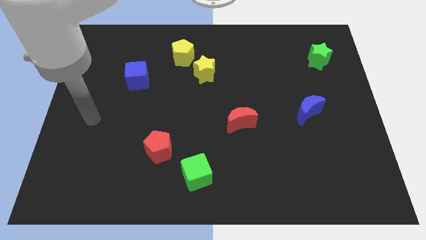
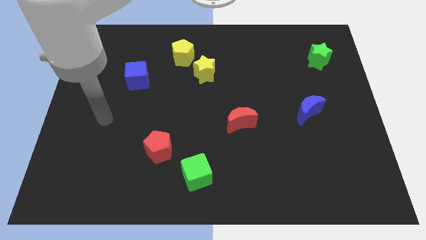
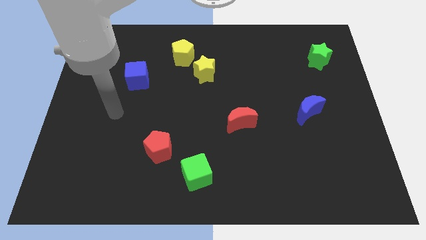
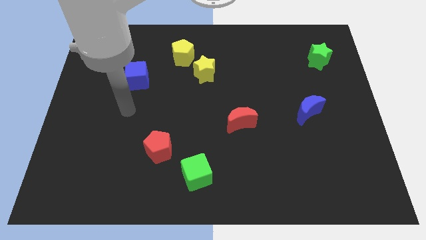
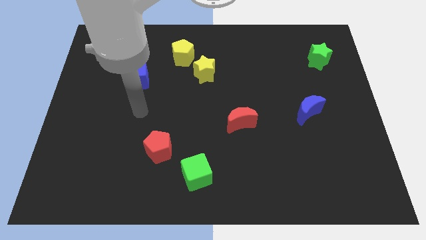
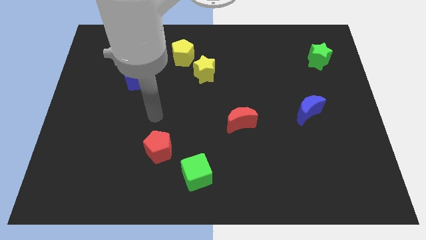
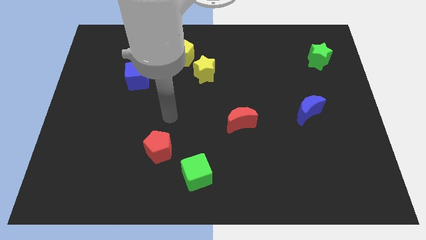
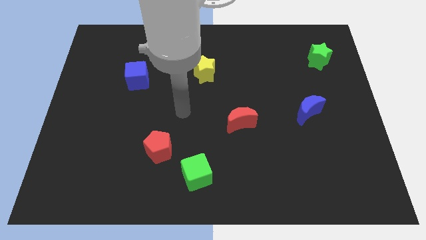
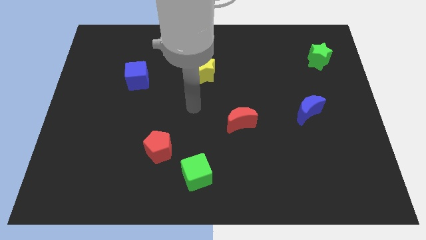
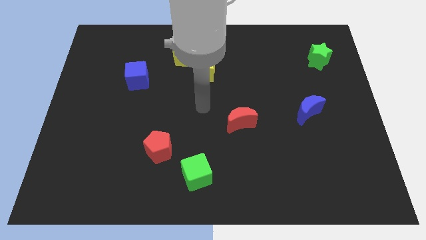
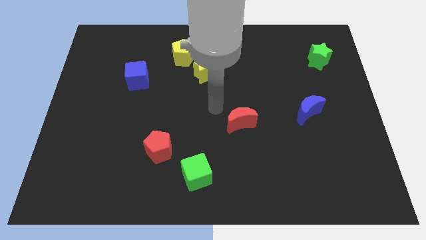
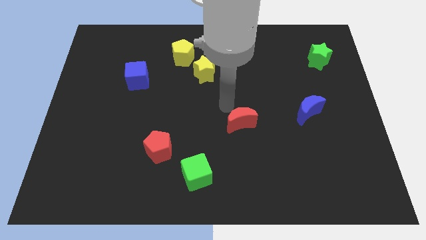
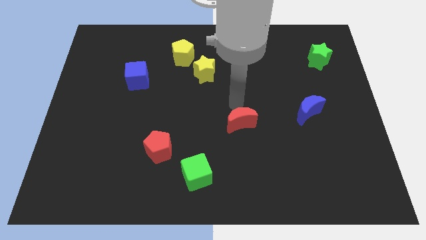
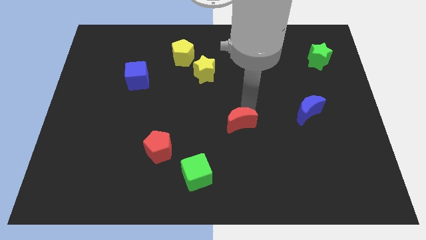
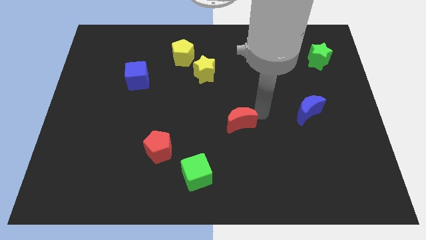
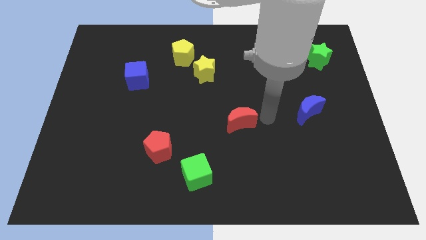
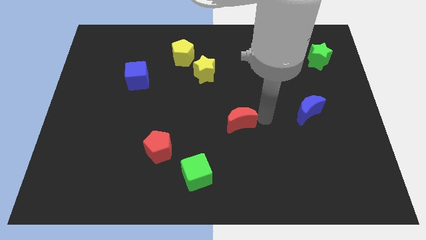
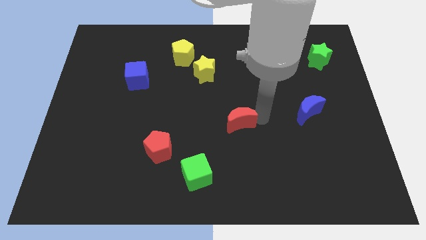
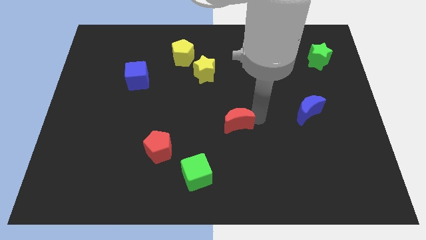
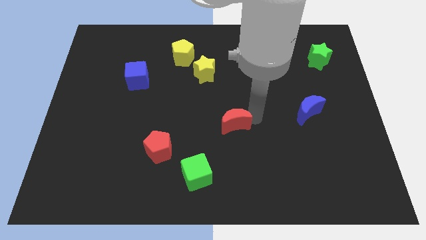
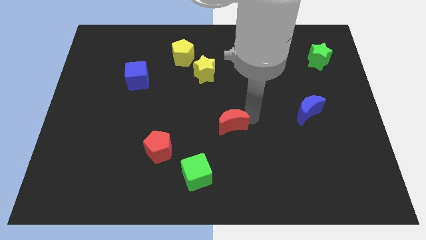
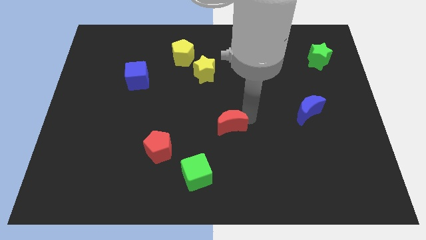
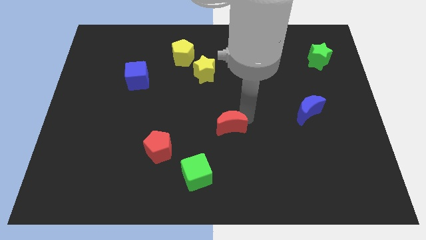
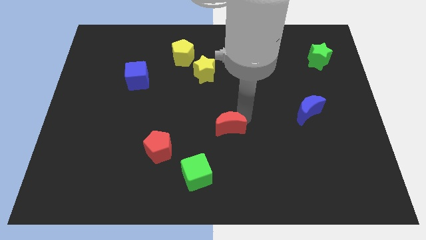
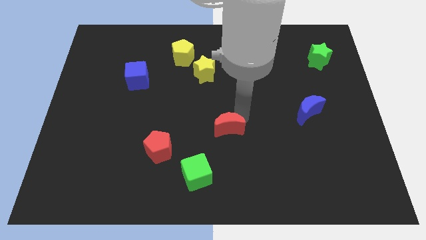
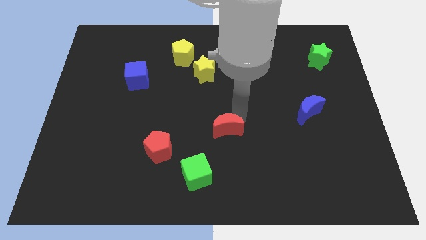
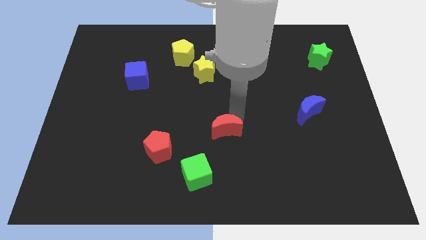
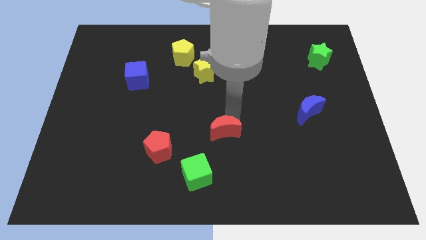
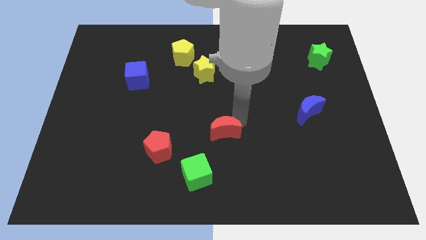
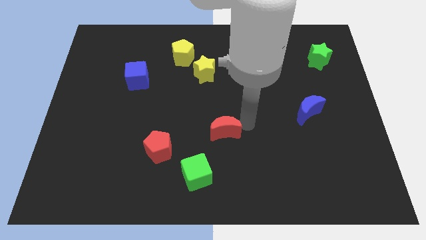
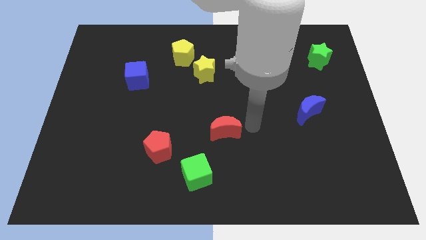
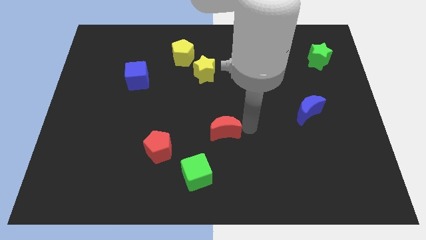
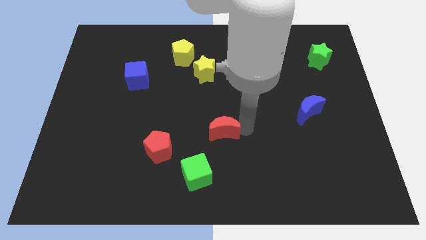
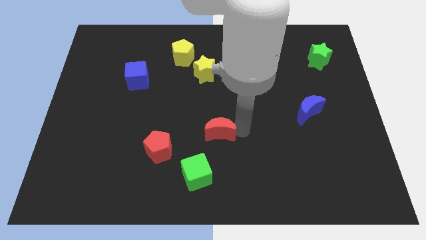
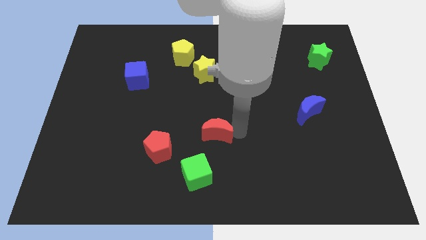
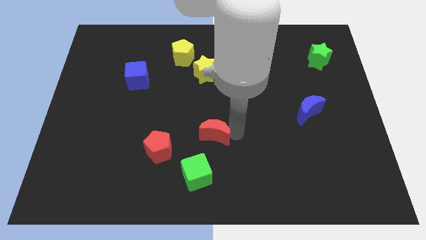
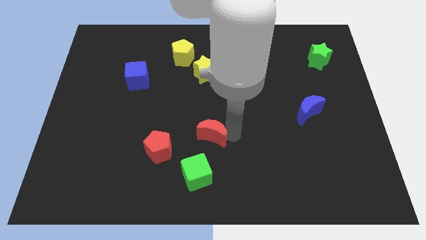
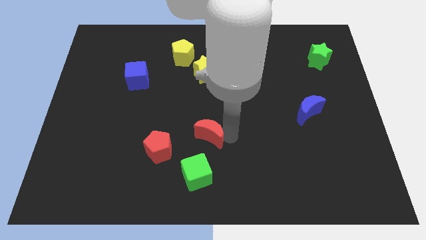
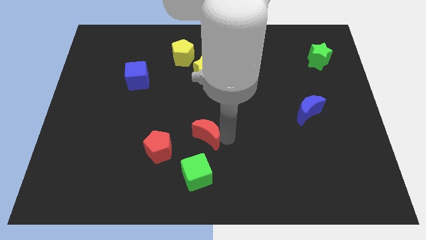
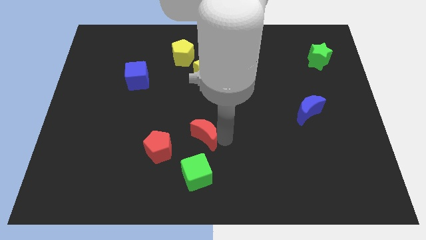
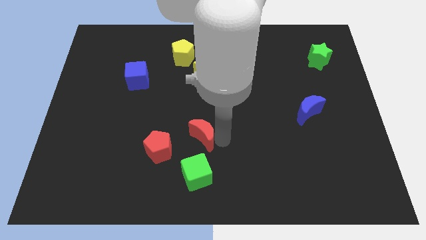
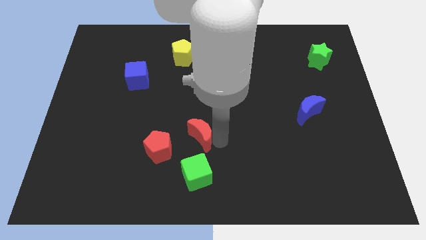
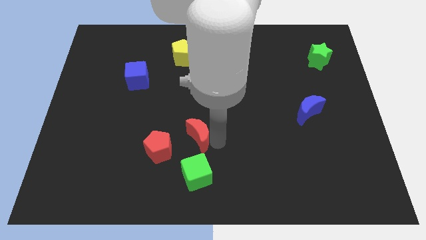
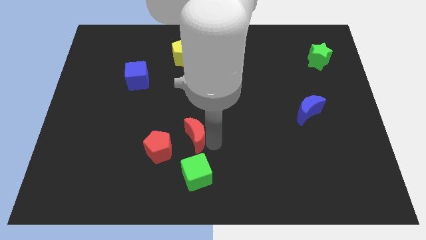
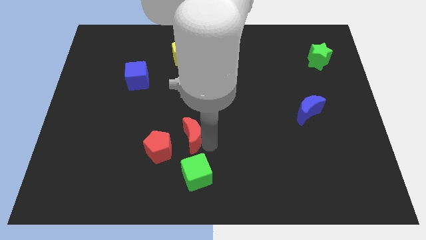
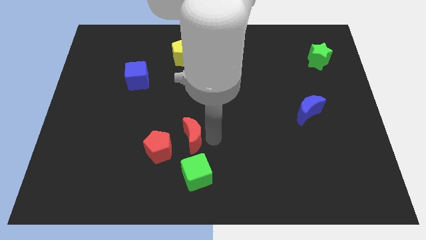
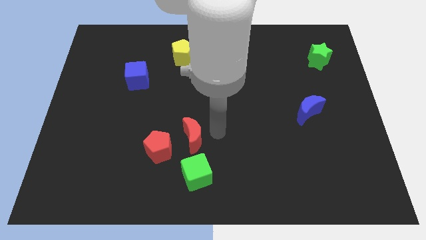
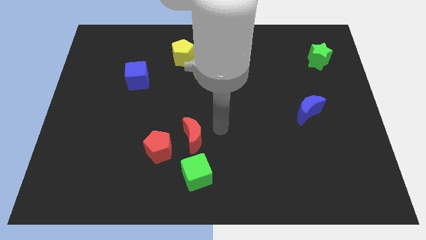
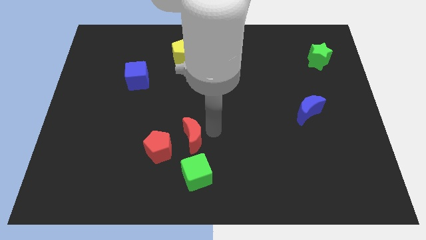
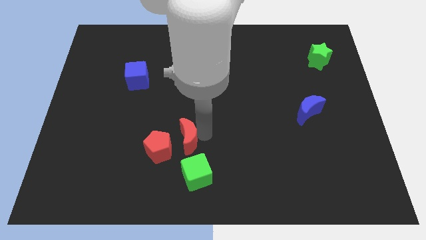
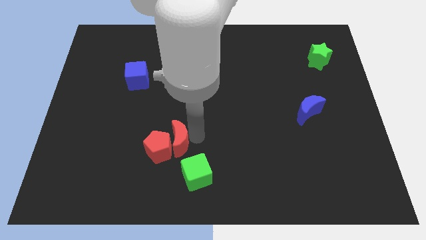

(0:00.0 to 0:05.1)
put the red moon close to the red pentagon

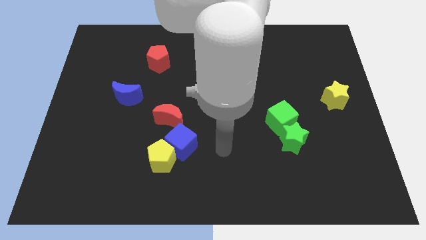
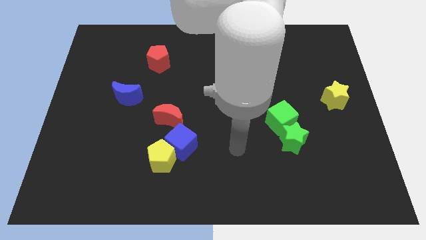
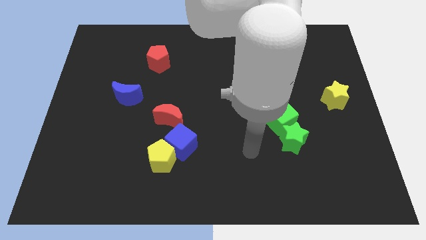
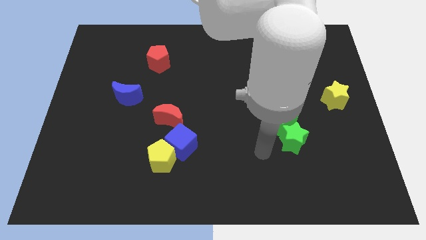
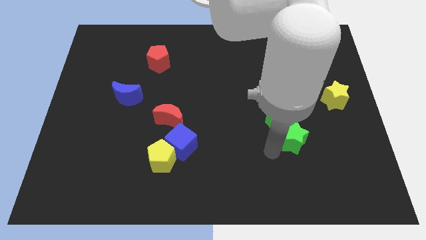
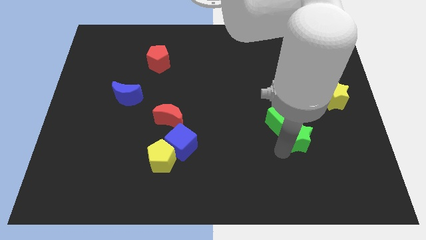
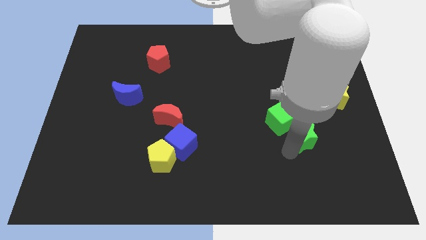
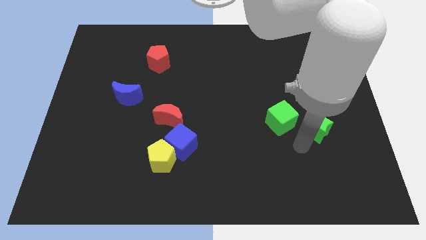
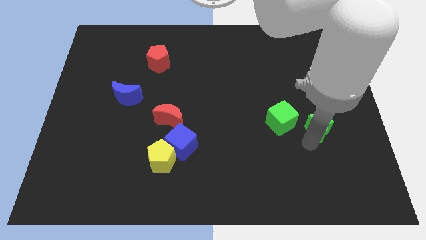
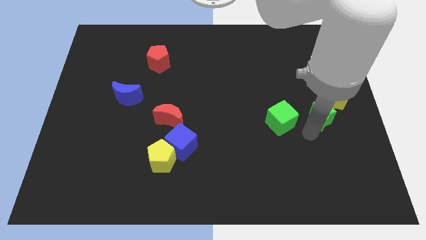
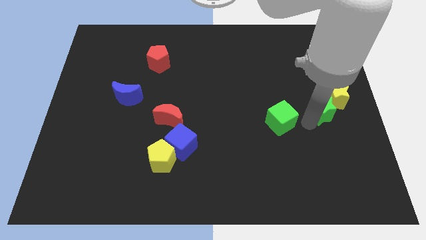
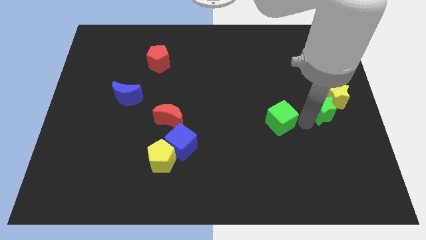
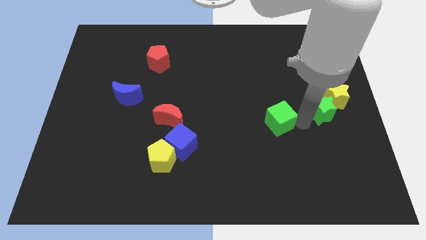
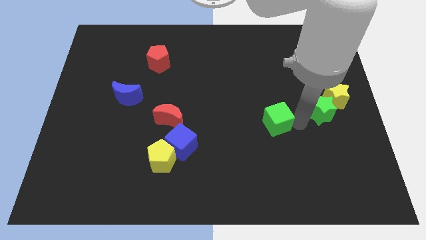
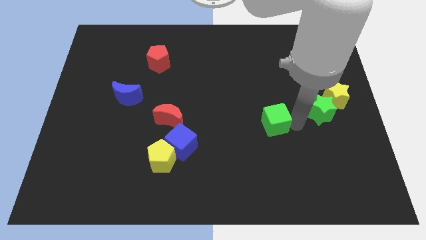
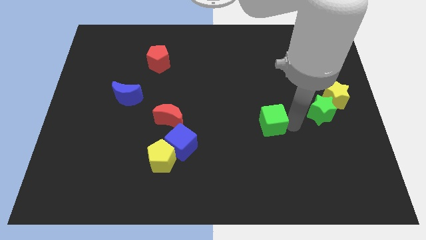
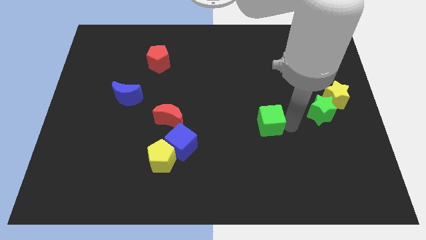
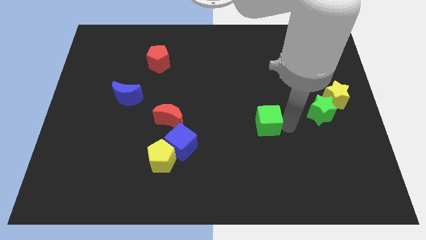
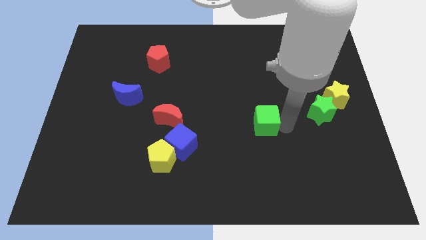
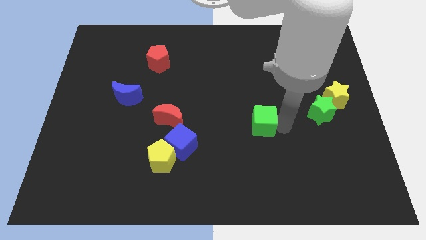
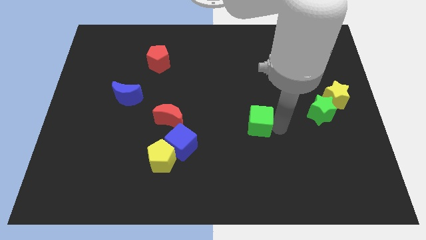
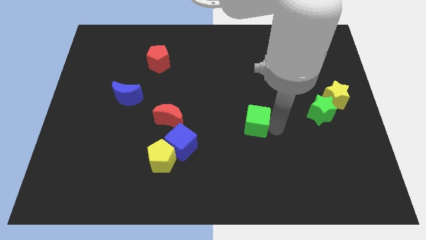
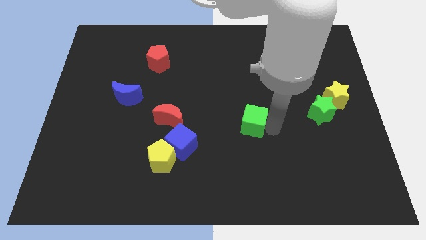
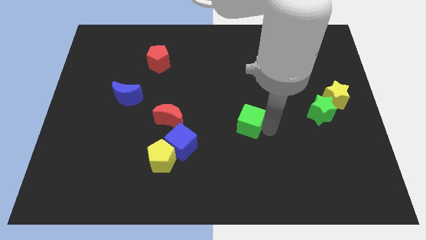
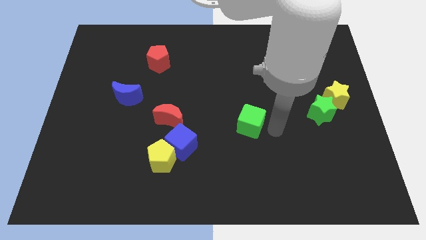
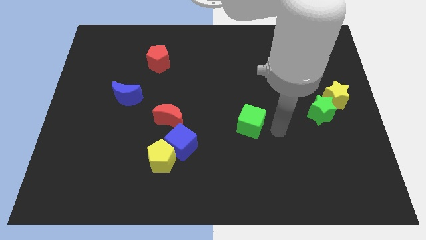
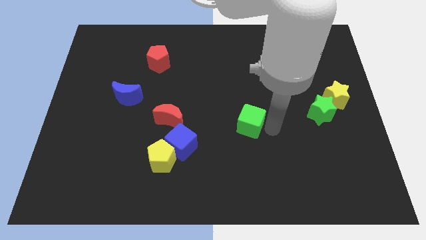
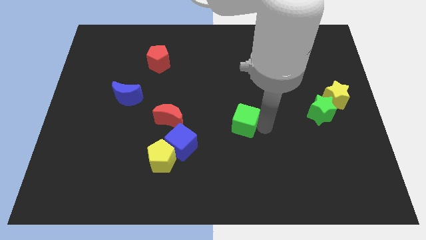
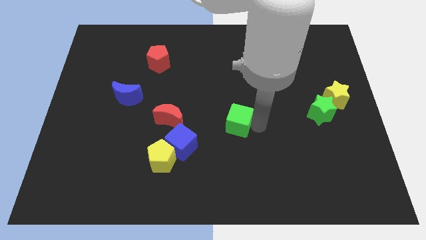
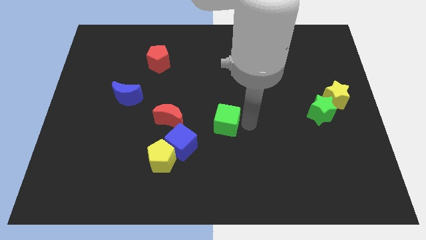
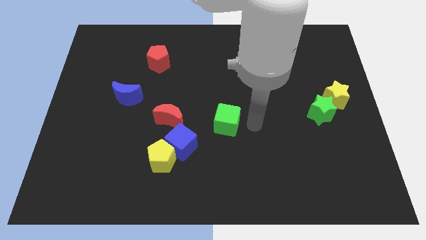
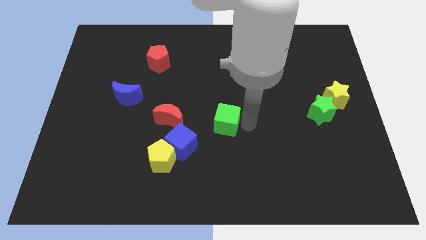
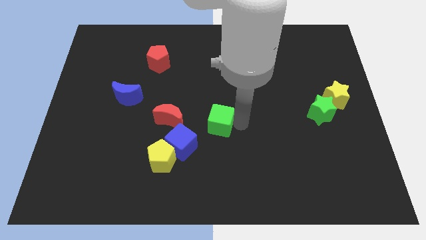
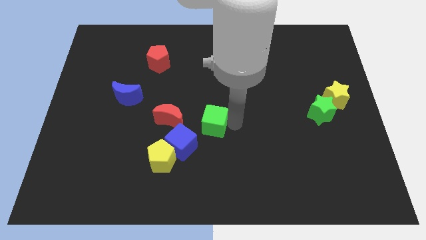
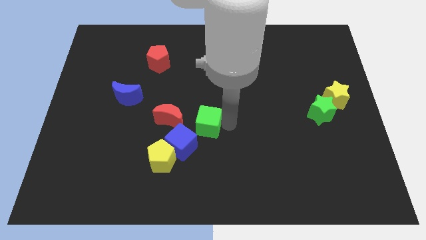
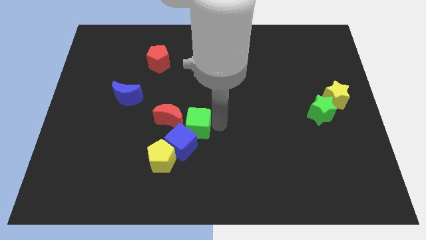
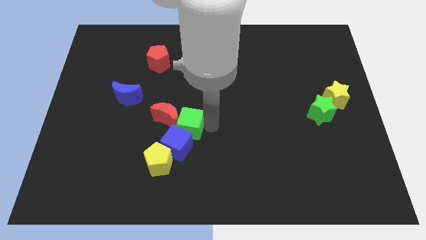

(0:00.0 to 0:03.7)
slide the green cube towards the red moon
